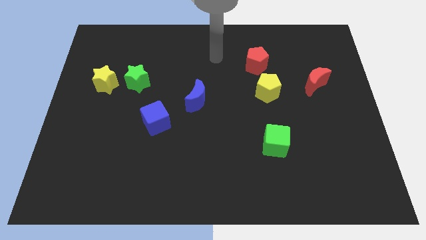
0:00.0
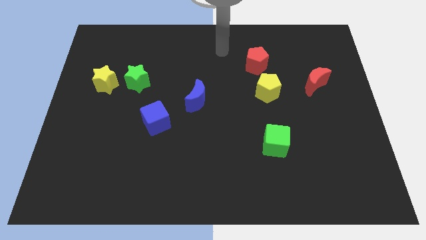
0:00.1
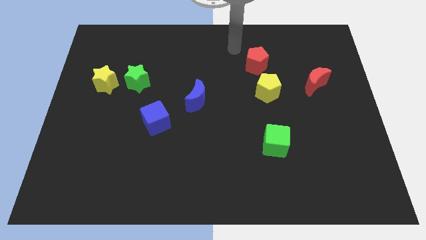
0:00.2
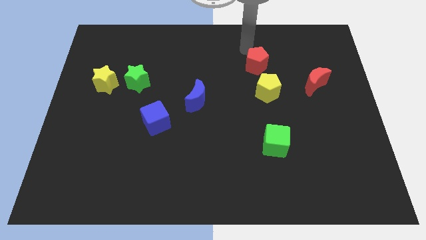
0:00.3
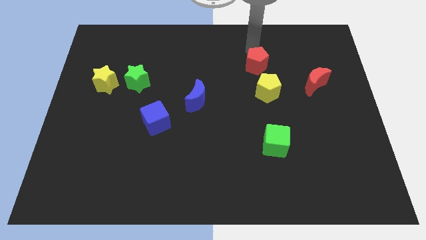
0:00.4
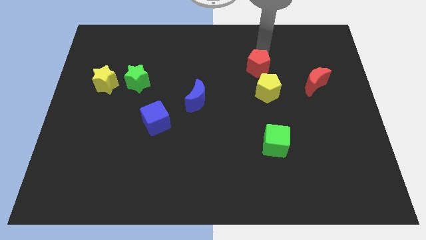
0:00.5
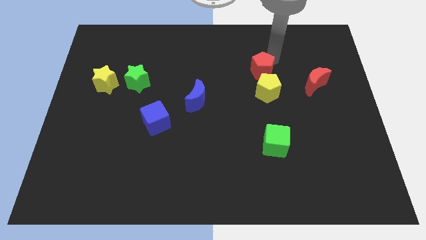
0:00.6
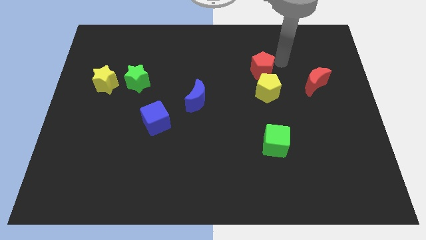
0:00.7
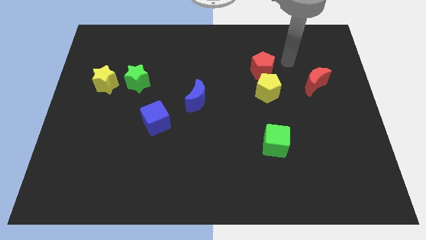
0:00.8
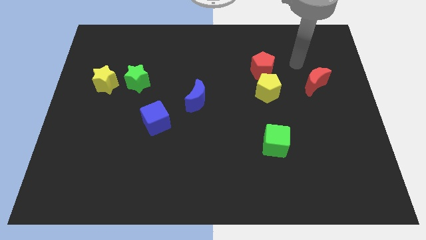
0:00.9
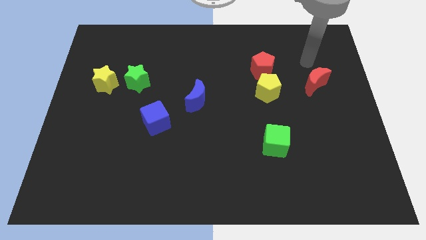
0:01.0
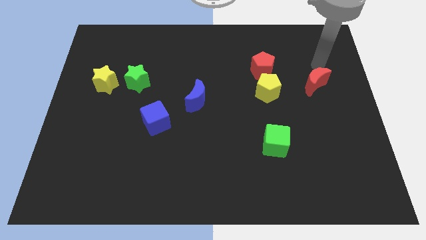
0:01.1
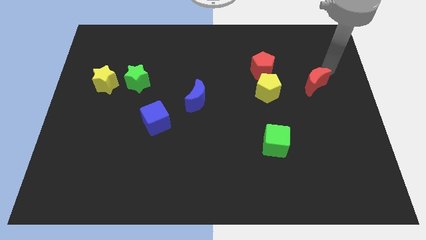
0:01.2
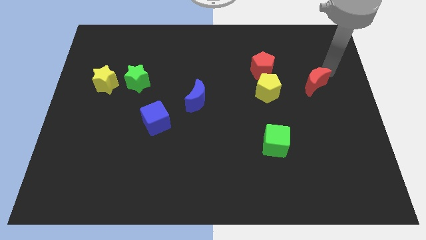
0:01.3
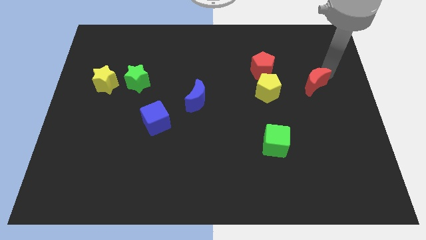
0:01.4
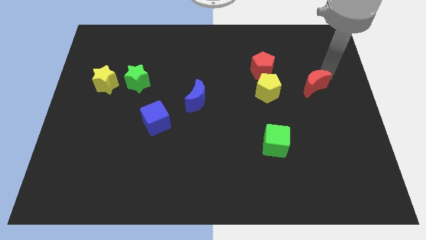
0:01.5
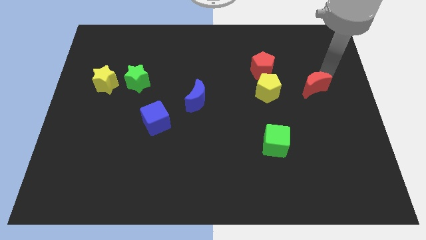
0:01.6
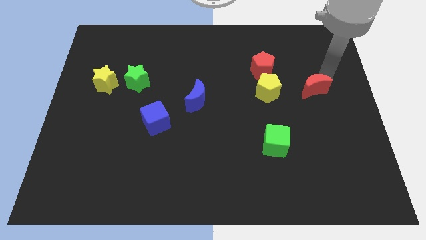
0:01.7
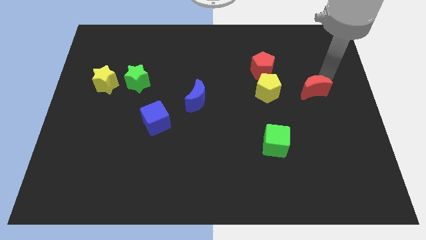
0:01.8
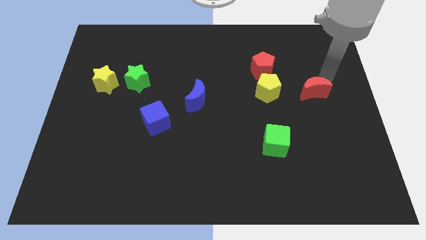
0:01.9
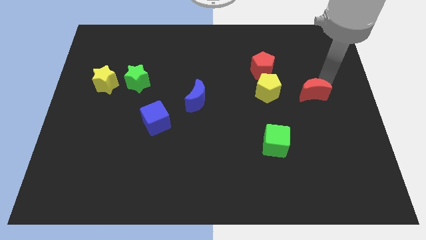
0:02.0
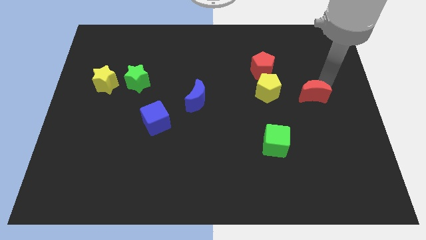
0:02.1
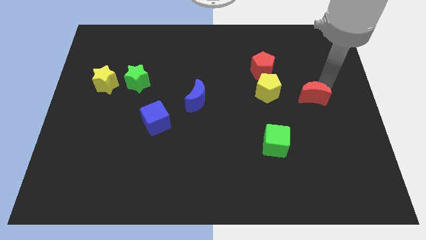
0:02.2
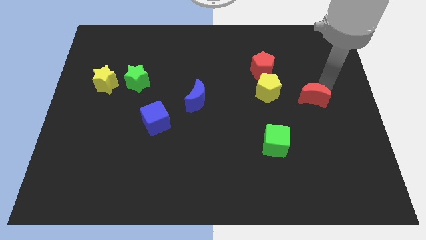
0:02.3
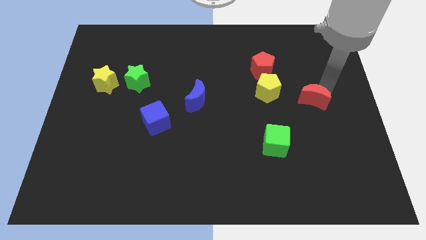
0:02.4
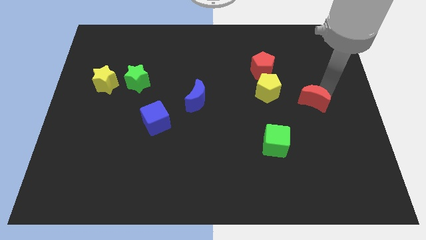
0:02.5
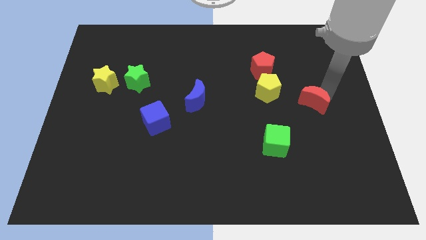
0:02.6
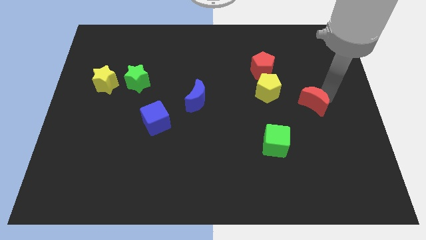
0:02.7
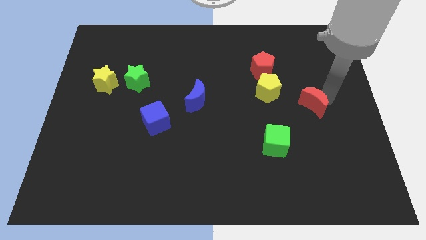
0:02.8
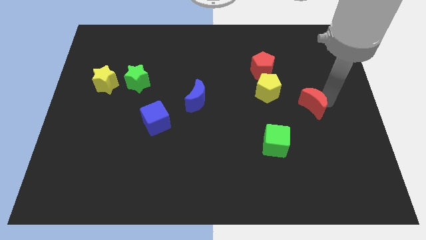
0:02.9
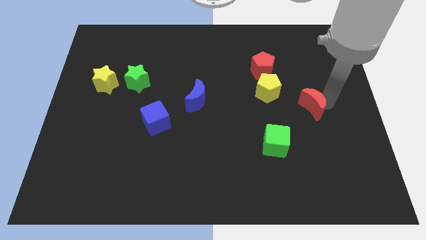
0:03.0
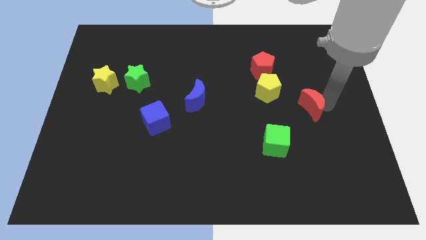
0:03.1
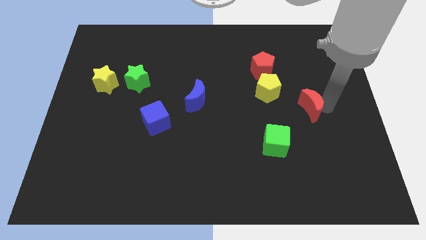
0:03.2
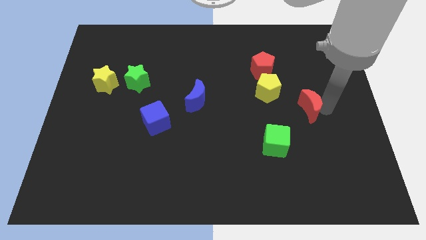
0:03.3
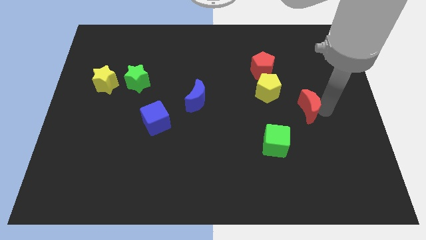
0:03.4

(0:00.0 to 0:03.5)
move the red moon downwards and left diagonally a bit

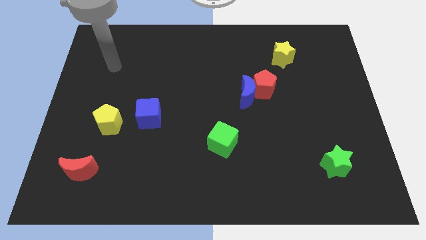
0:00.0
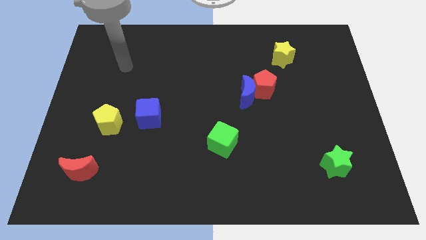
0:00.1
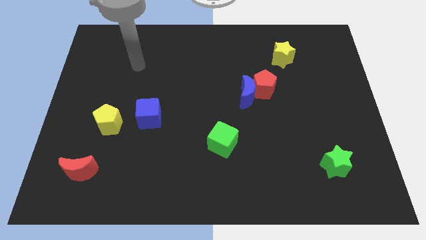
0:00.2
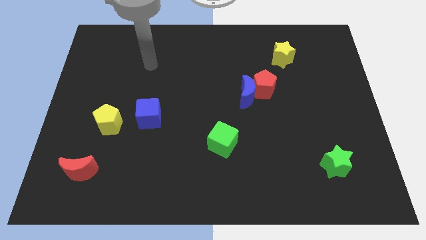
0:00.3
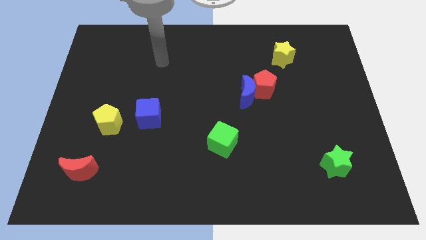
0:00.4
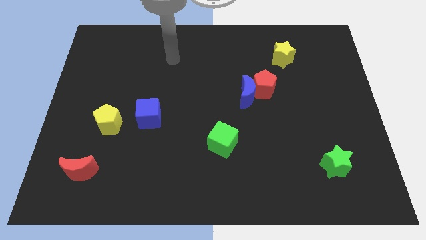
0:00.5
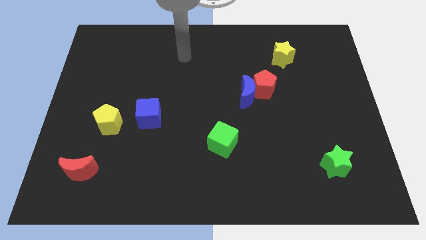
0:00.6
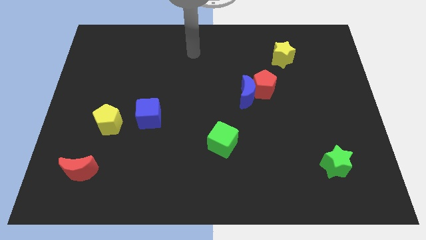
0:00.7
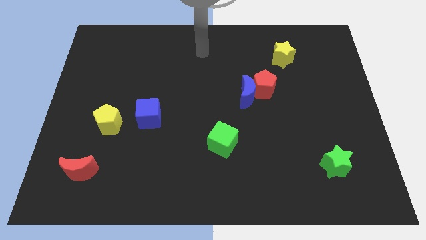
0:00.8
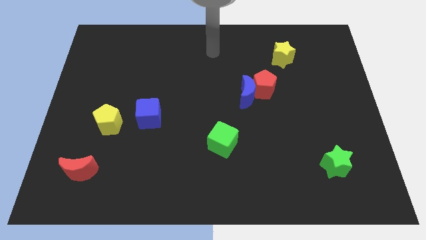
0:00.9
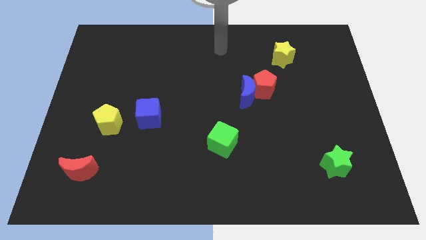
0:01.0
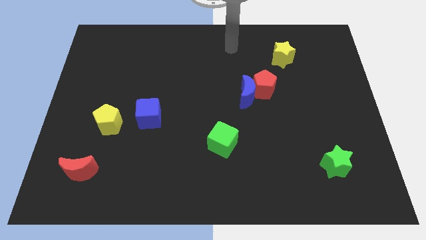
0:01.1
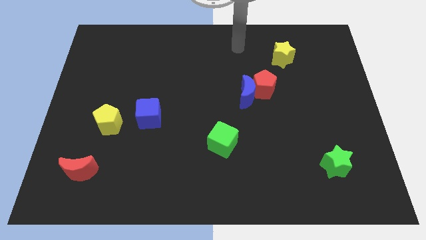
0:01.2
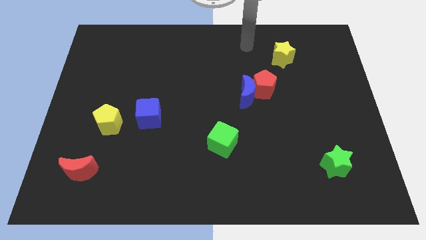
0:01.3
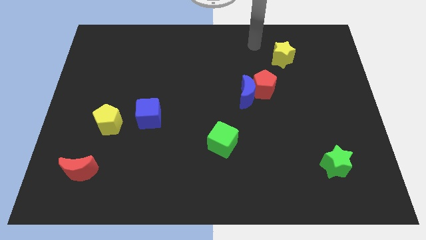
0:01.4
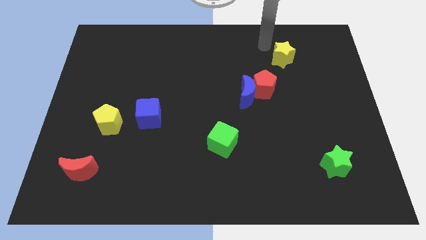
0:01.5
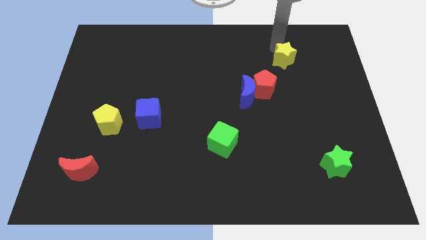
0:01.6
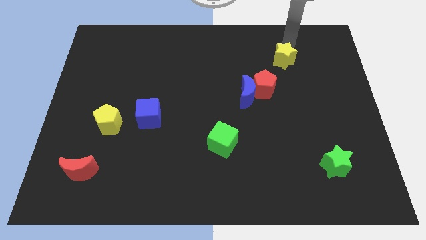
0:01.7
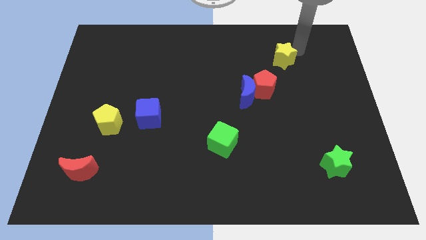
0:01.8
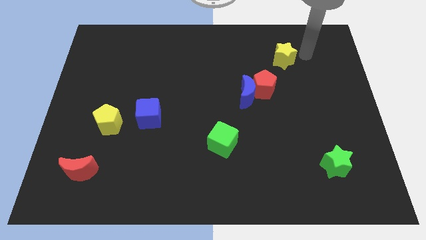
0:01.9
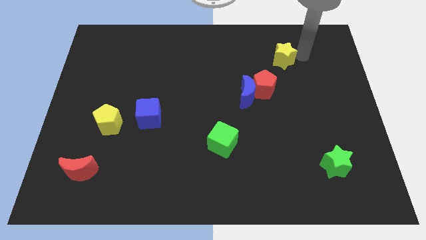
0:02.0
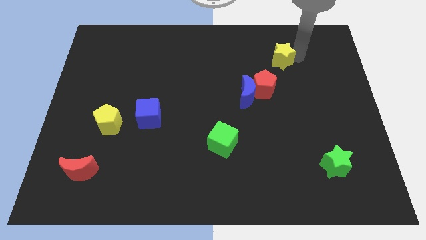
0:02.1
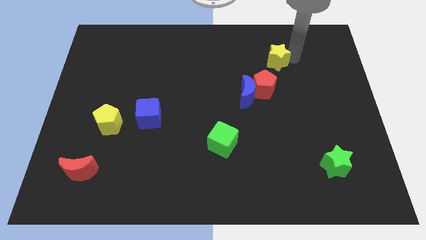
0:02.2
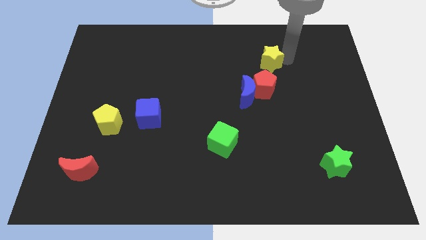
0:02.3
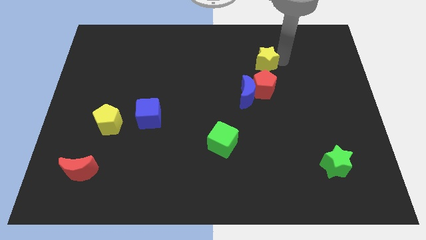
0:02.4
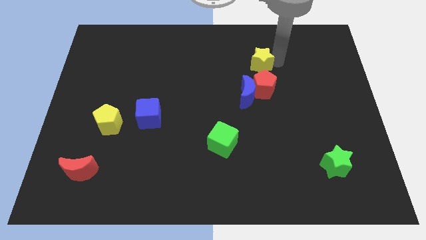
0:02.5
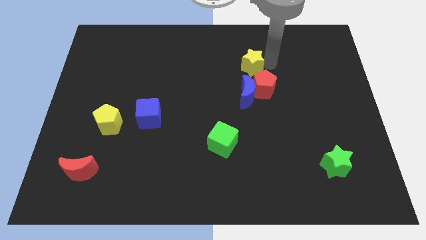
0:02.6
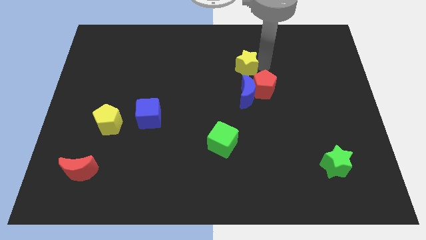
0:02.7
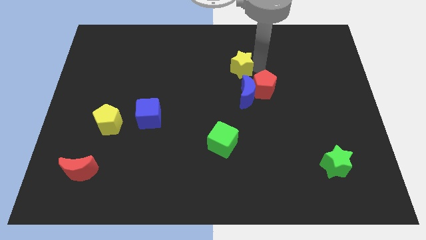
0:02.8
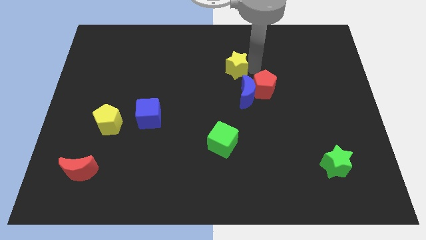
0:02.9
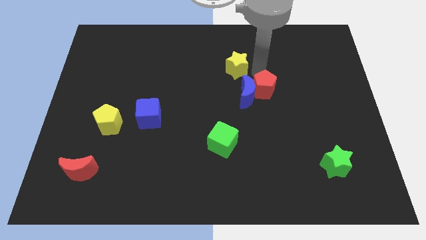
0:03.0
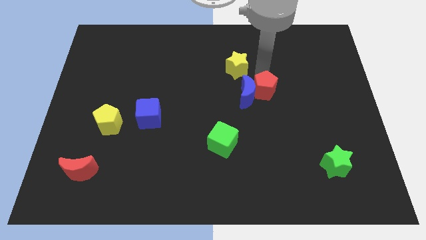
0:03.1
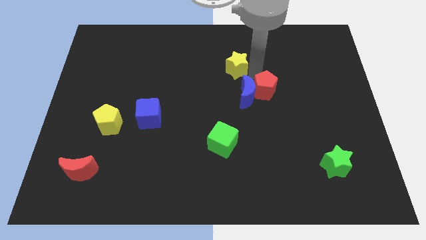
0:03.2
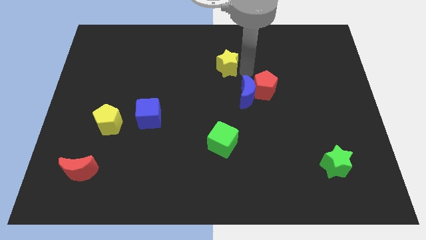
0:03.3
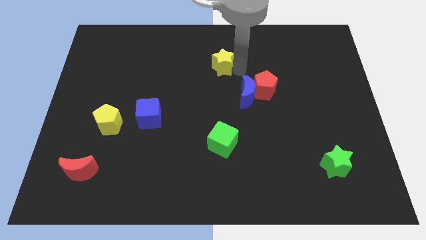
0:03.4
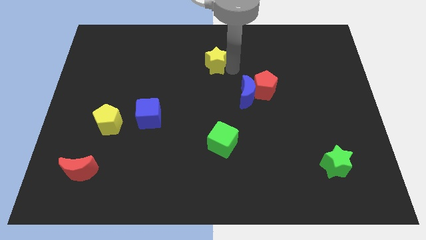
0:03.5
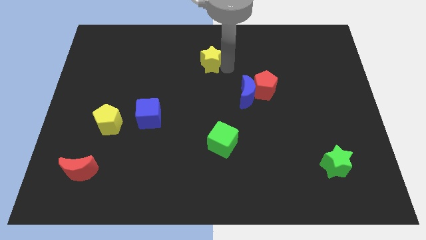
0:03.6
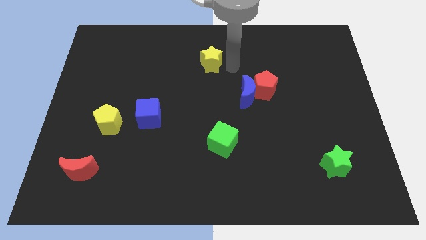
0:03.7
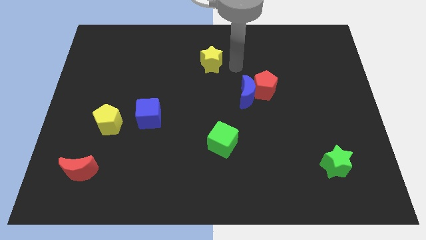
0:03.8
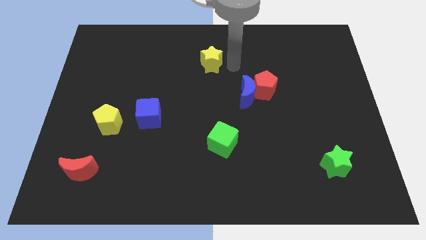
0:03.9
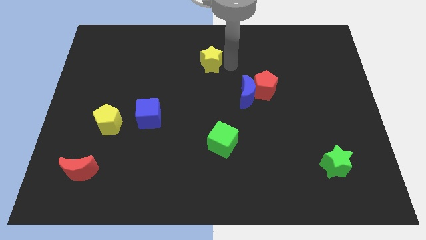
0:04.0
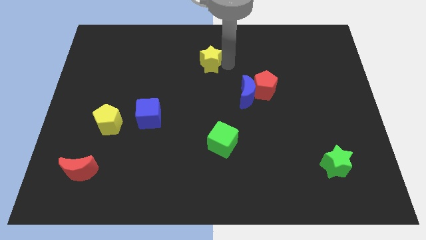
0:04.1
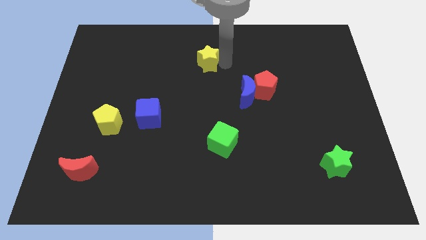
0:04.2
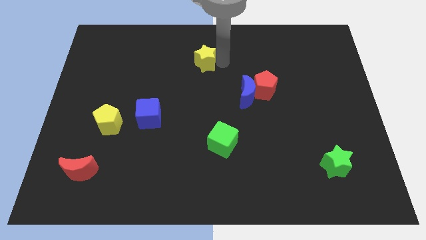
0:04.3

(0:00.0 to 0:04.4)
push the yellow star to the left

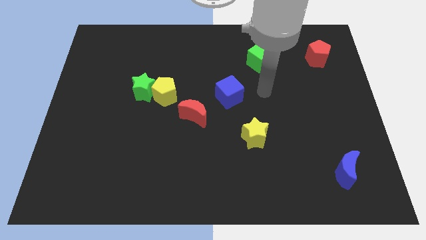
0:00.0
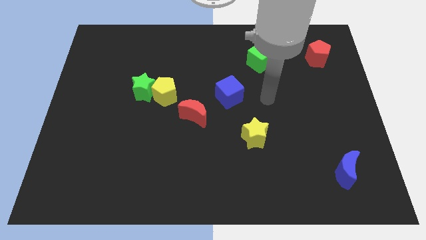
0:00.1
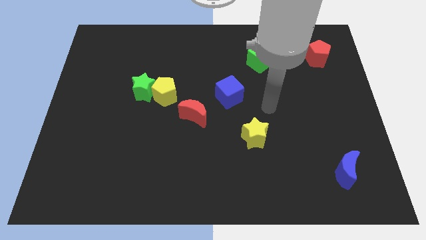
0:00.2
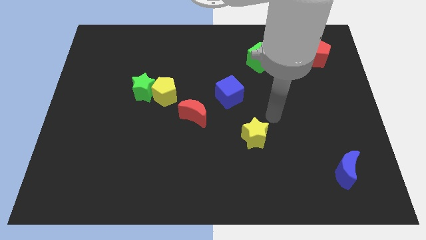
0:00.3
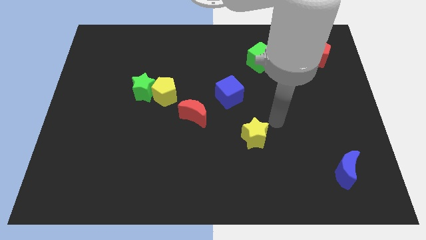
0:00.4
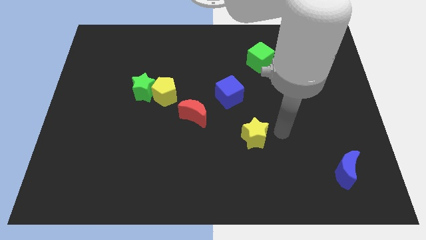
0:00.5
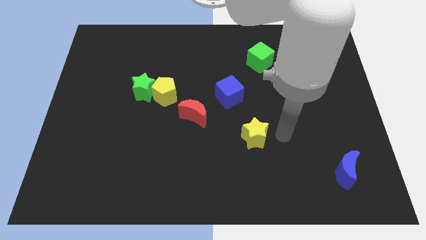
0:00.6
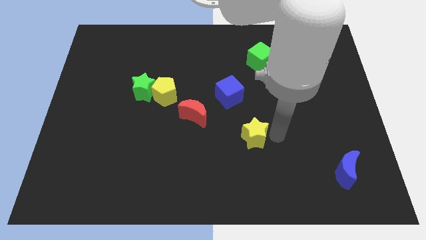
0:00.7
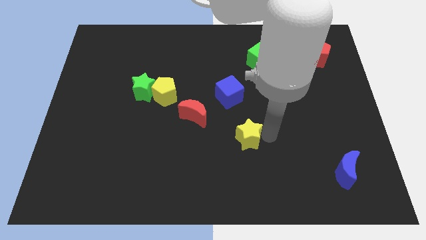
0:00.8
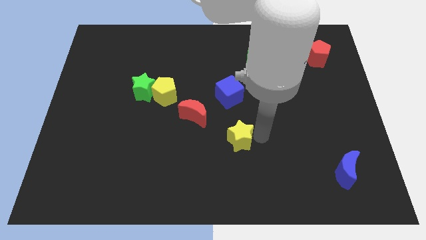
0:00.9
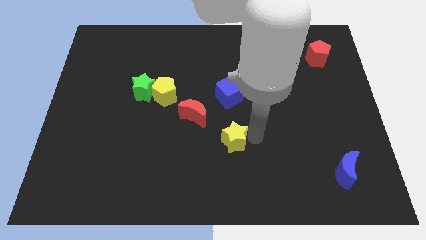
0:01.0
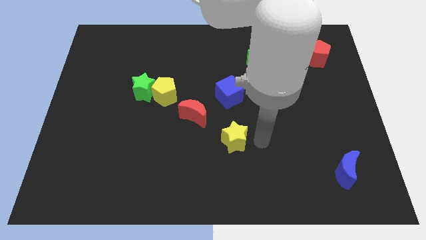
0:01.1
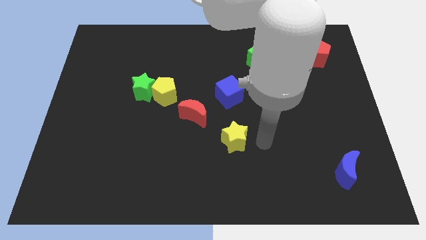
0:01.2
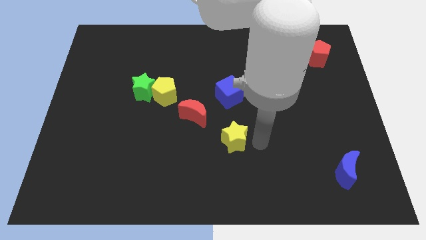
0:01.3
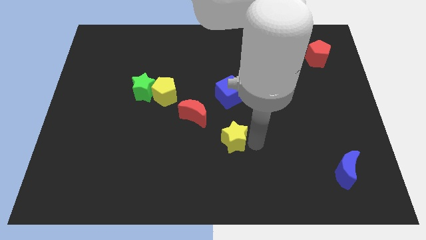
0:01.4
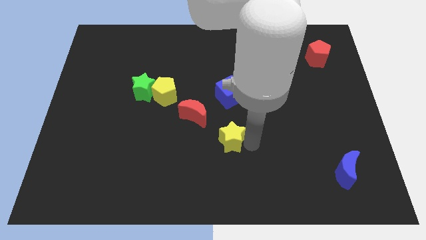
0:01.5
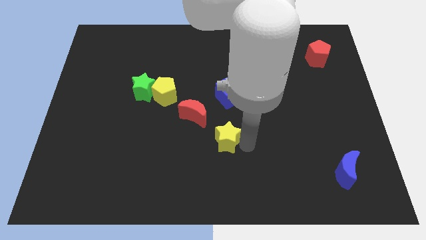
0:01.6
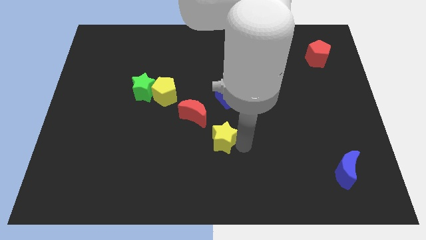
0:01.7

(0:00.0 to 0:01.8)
slightly slide the yellow star left
